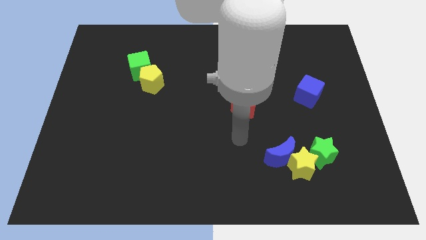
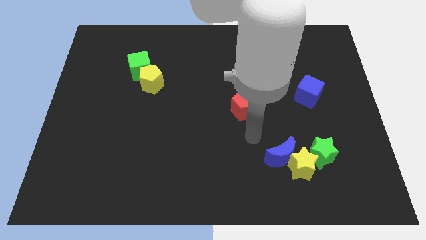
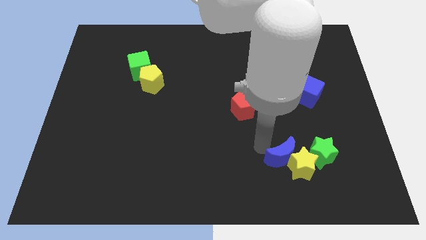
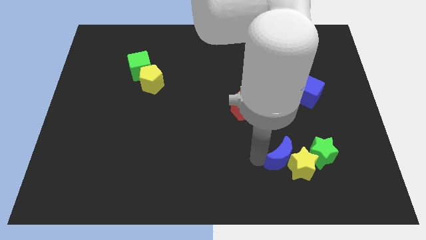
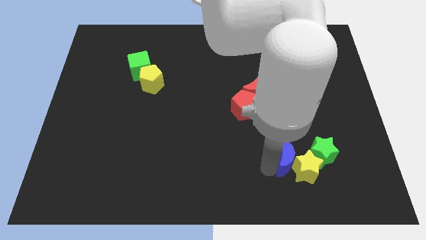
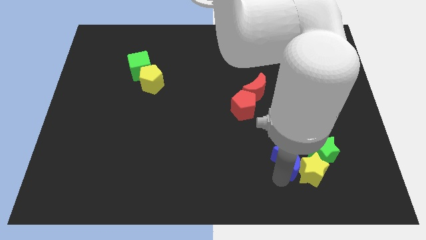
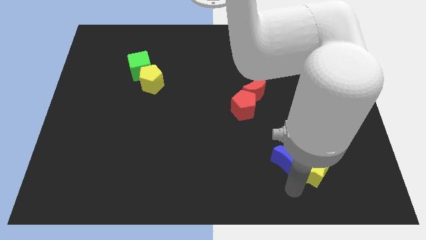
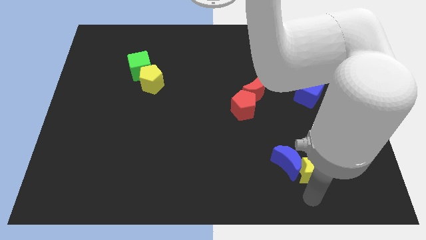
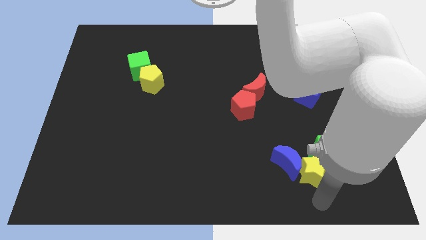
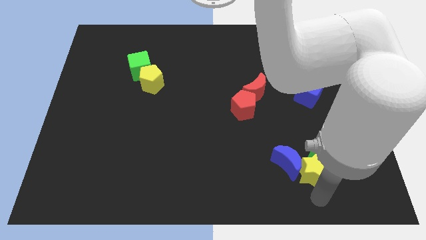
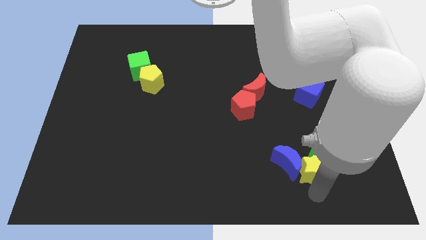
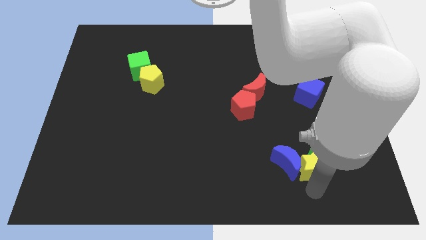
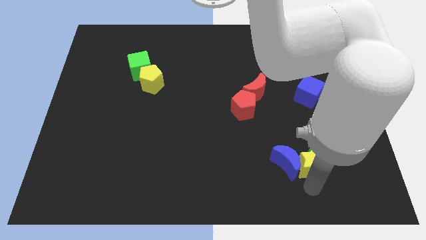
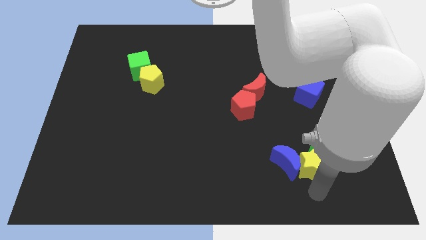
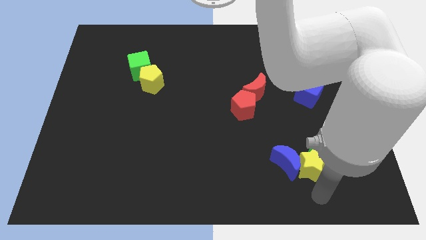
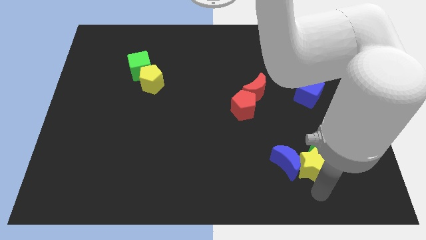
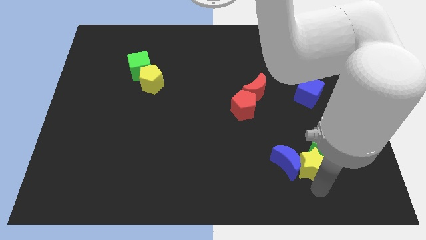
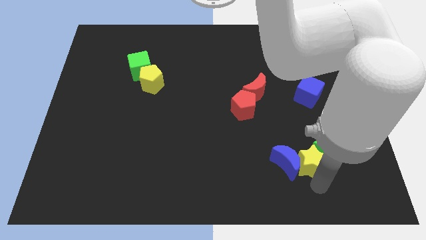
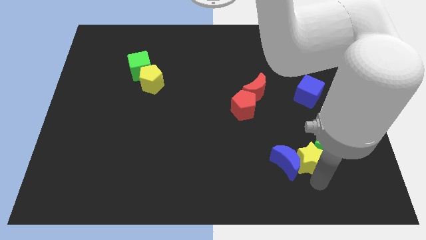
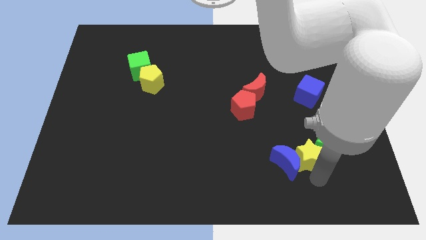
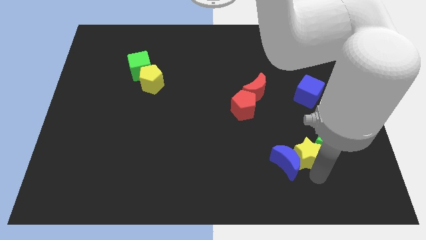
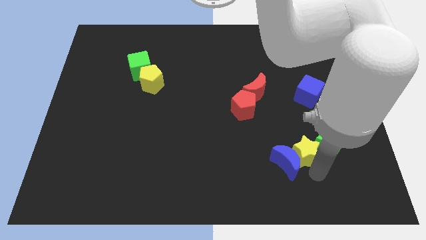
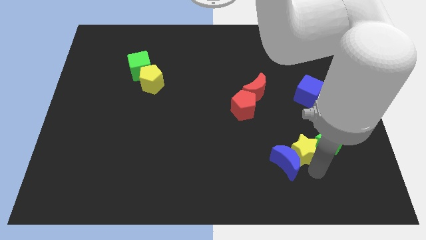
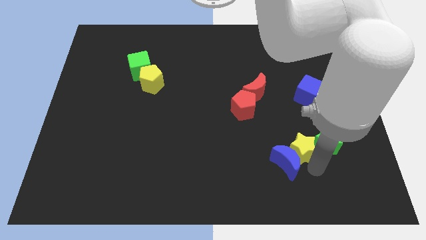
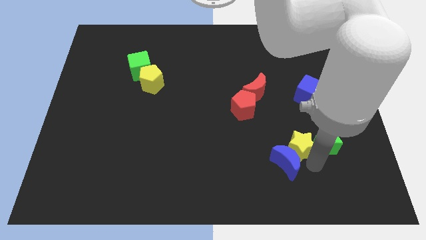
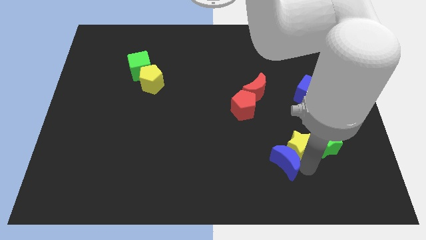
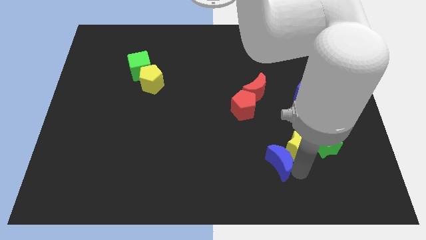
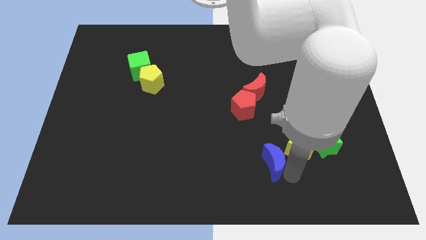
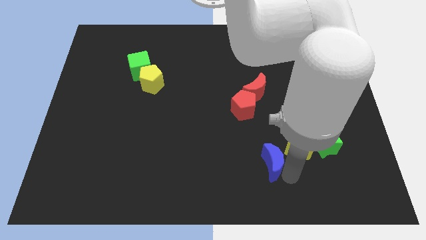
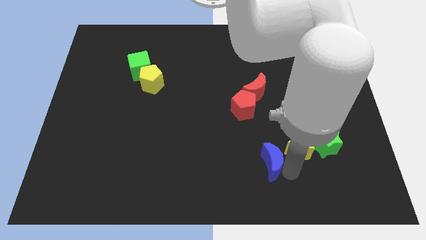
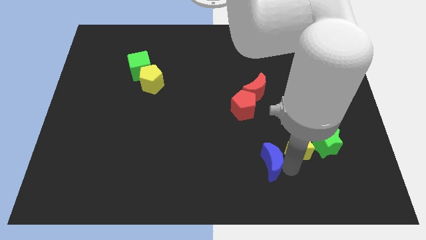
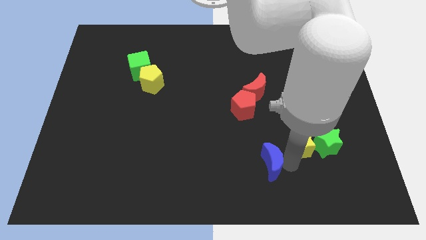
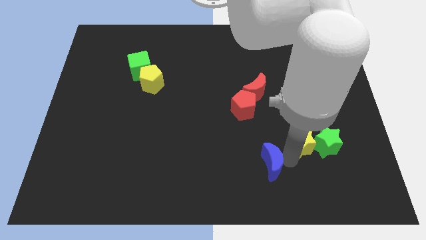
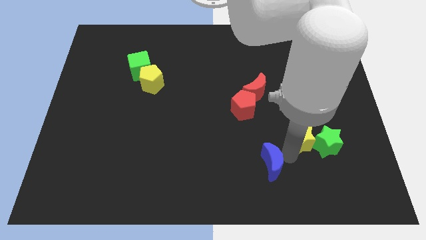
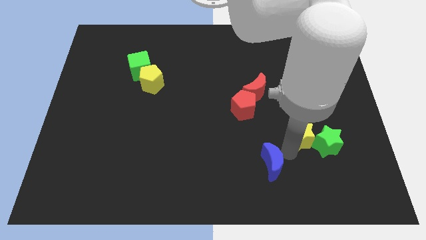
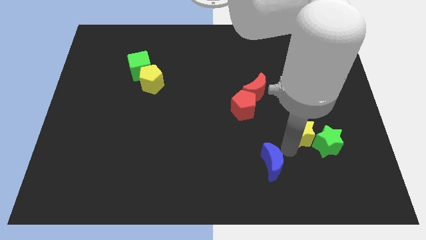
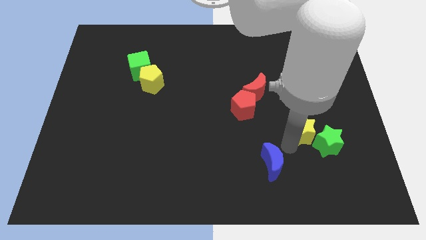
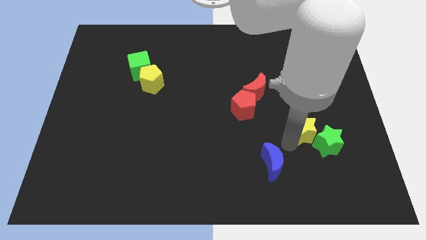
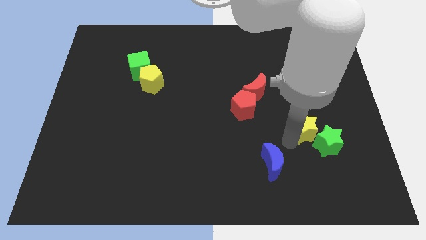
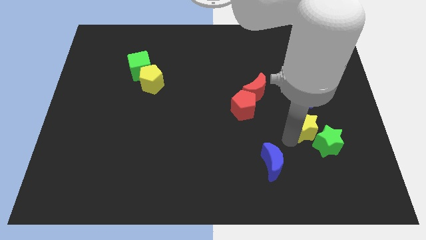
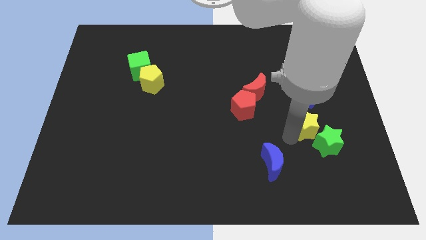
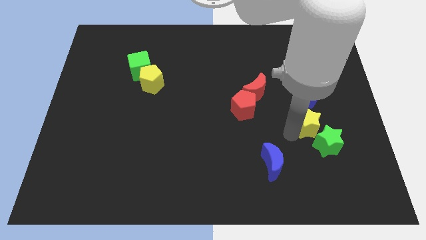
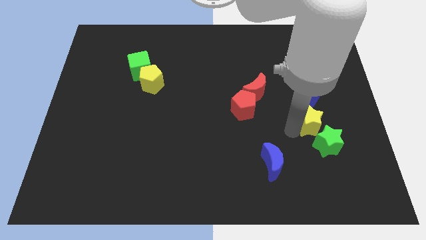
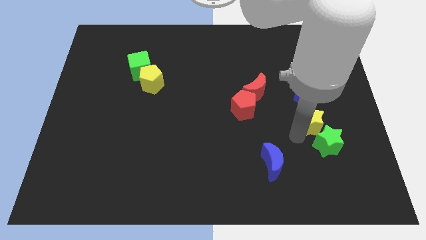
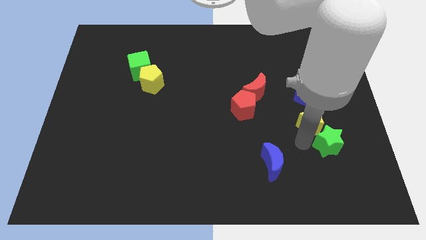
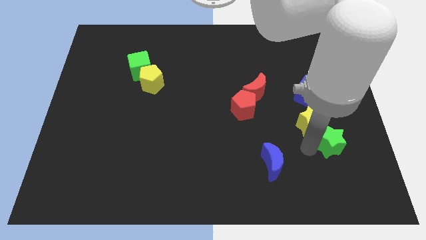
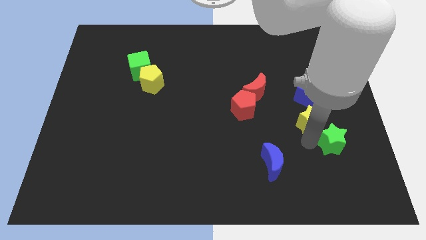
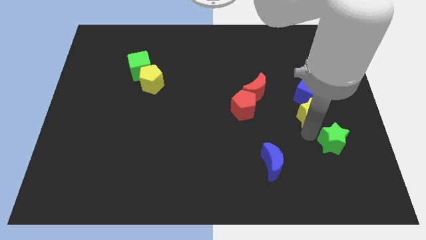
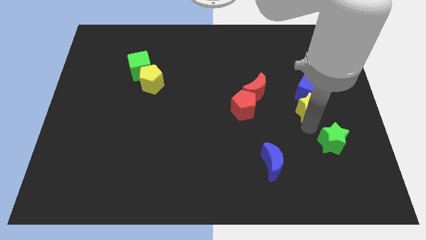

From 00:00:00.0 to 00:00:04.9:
push the yellow star close to the blue cube

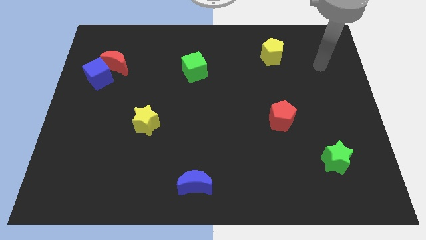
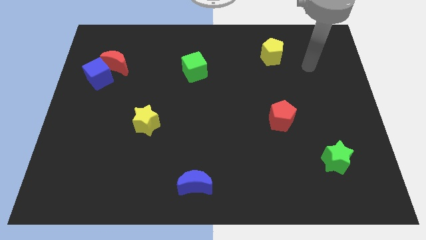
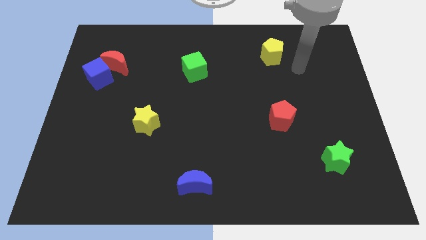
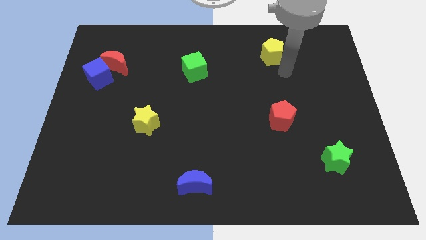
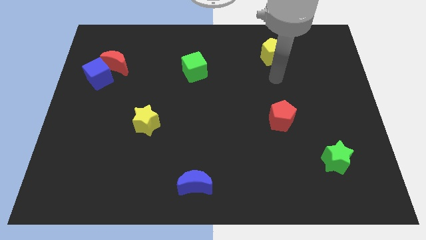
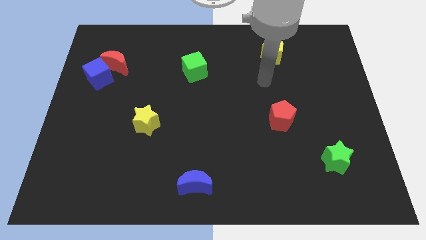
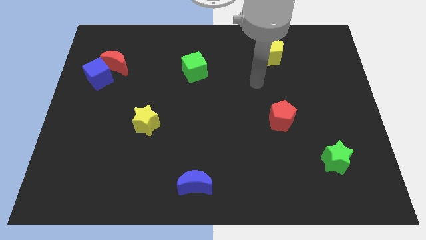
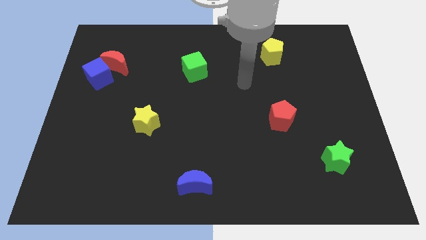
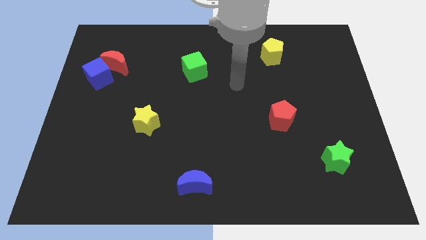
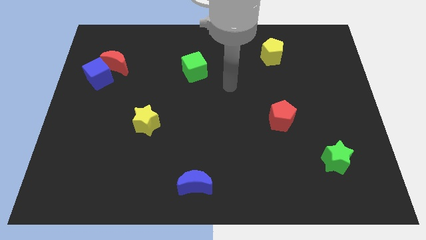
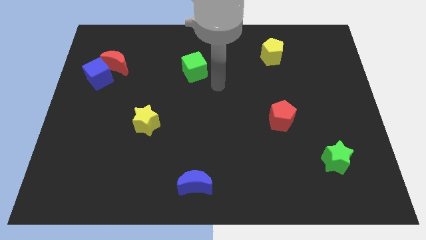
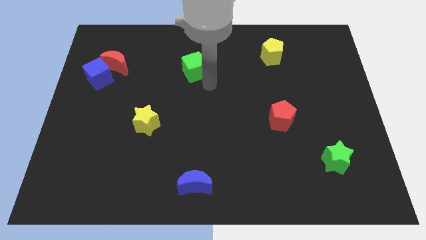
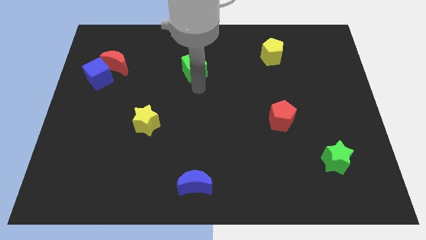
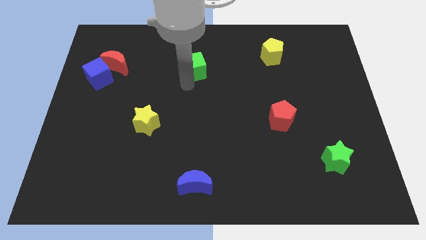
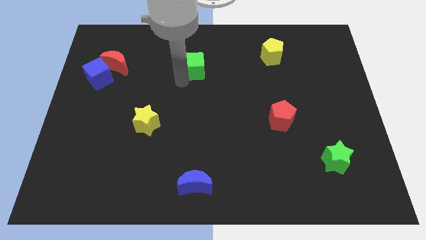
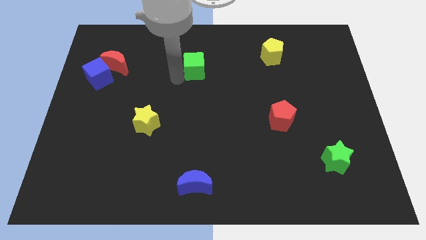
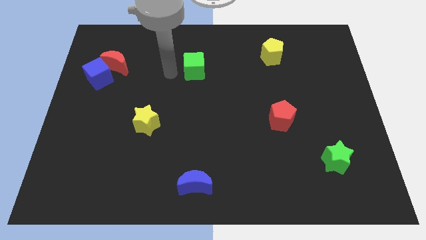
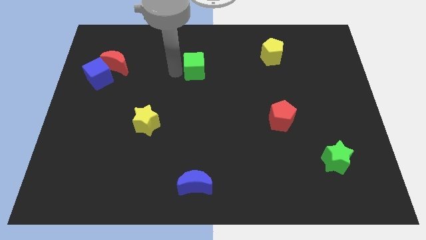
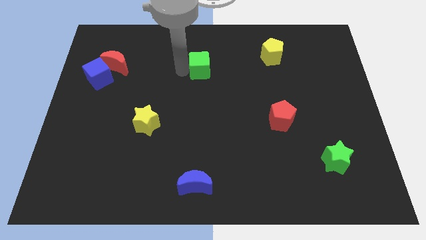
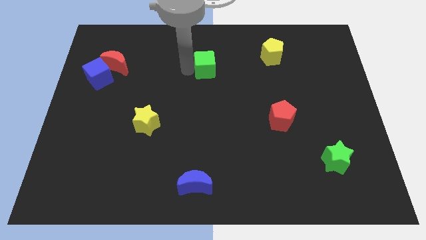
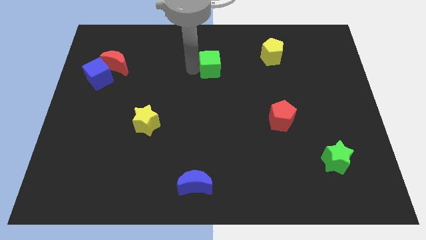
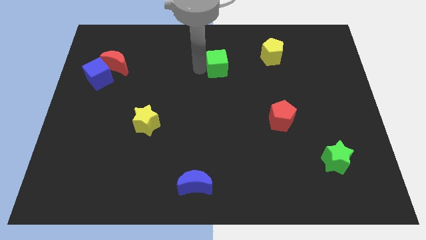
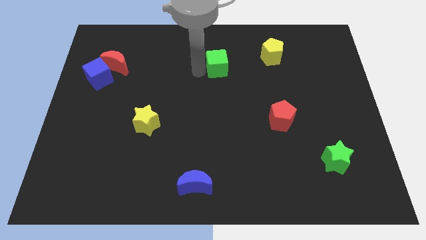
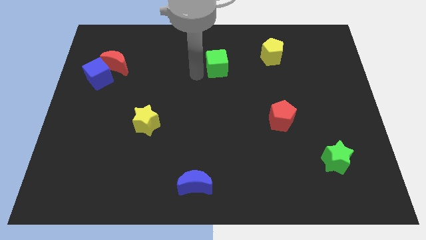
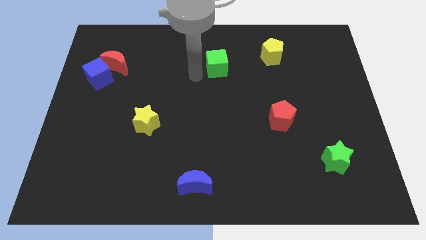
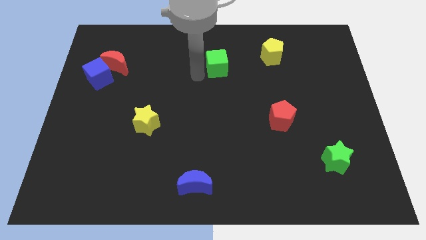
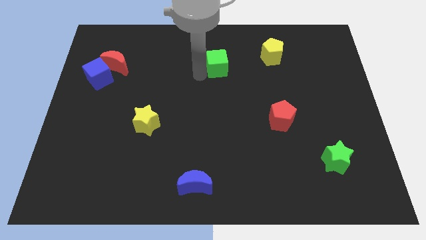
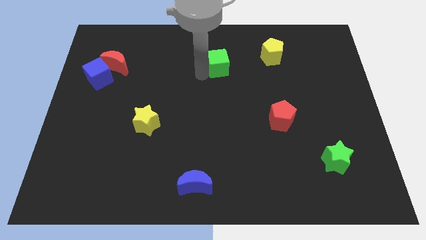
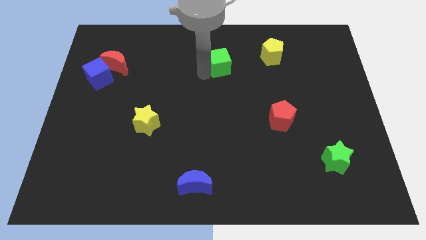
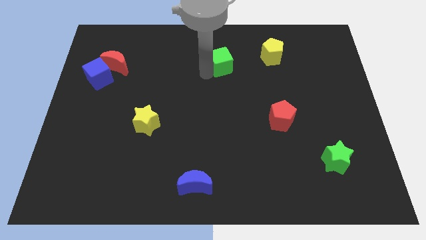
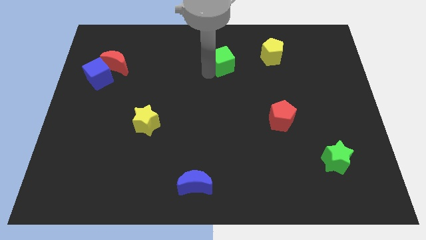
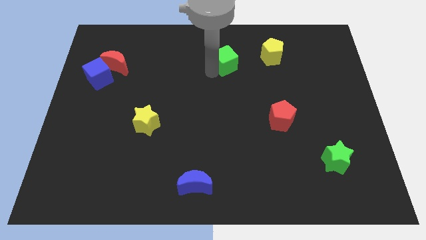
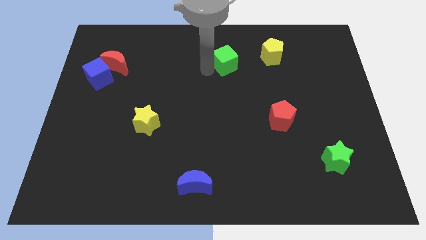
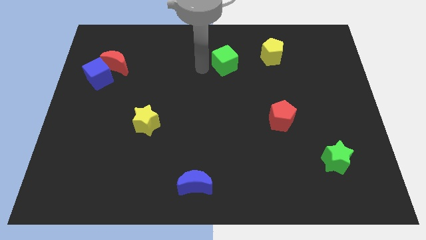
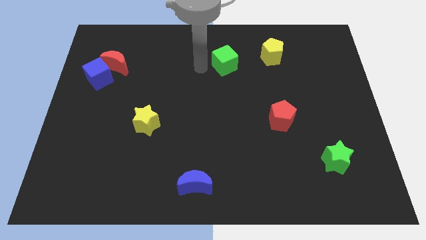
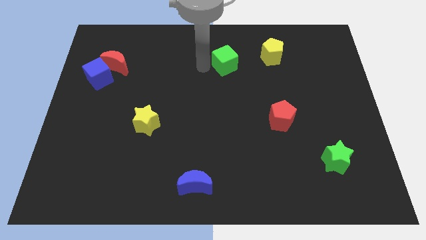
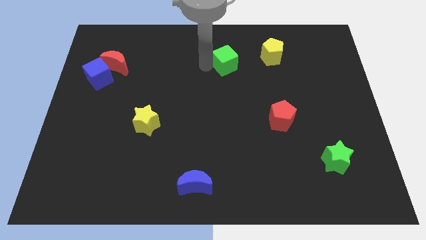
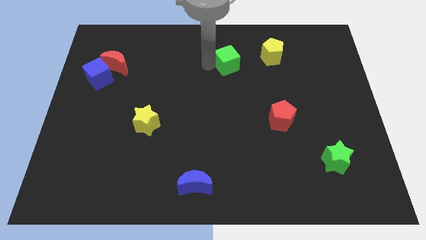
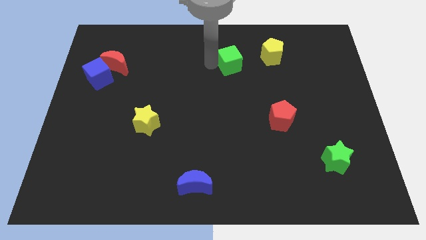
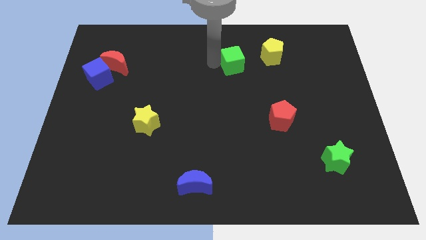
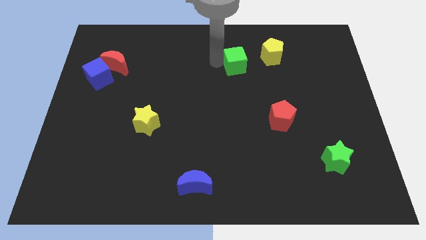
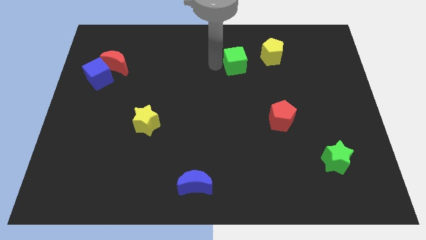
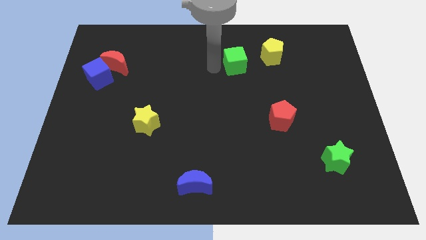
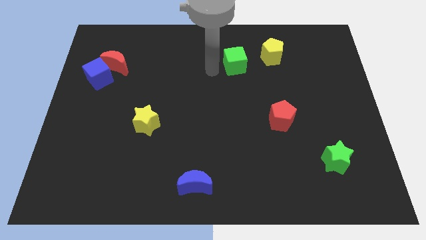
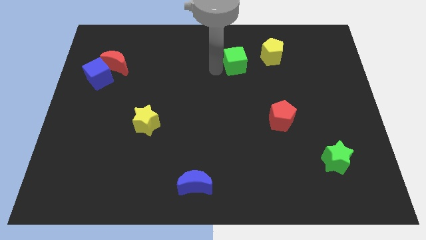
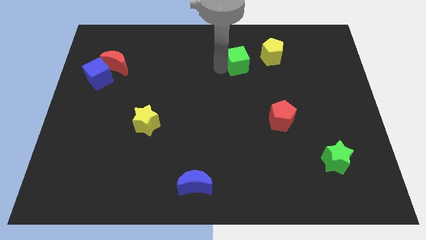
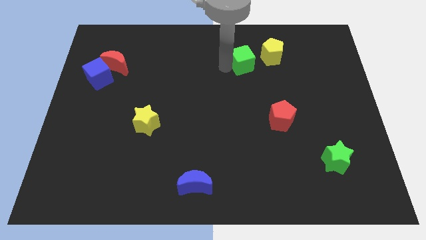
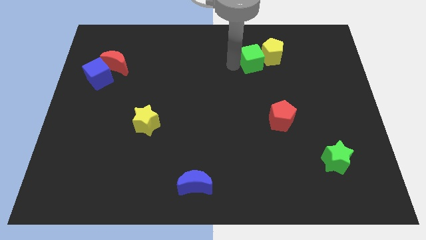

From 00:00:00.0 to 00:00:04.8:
slide the green cube next to the yellow pentagon
